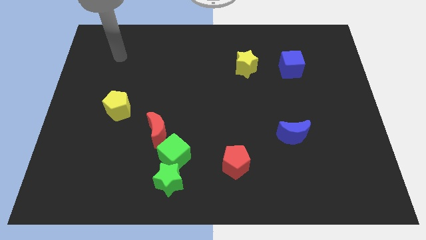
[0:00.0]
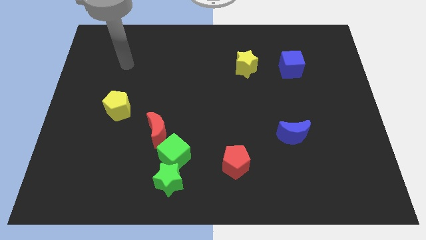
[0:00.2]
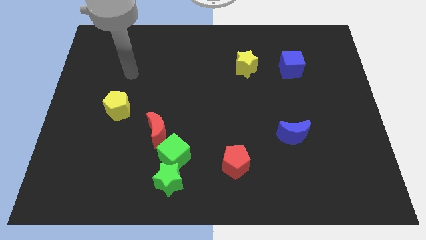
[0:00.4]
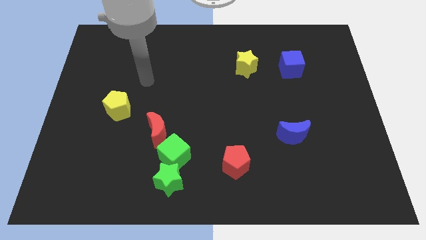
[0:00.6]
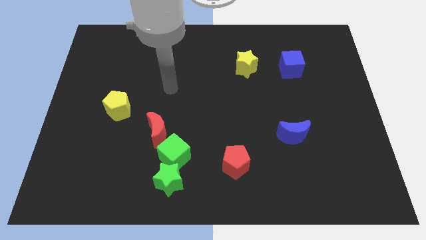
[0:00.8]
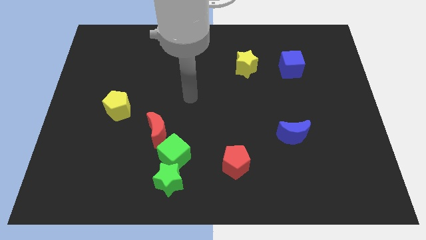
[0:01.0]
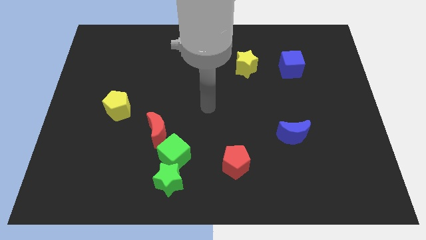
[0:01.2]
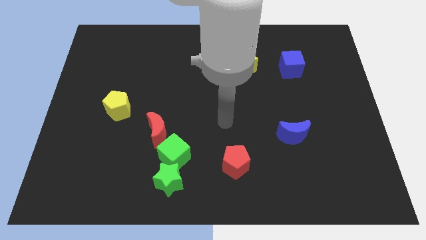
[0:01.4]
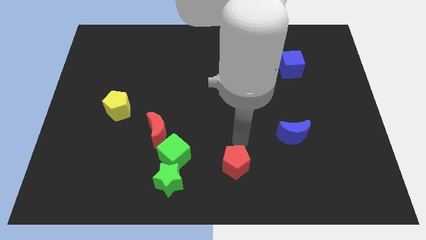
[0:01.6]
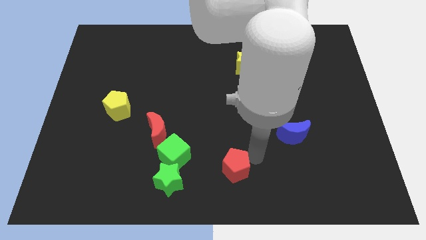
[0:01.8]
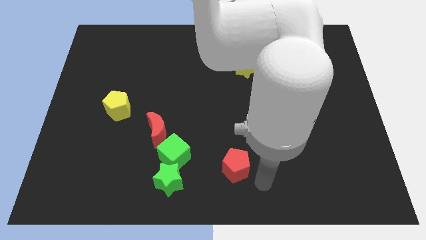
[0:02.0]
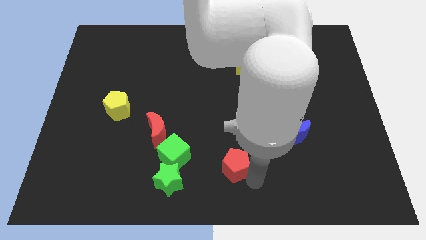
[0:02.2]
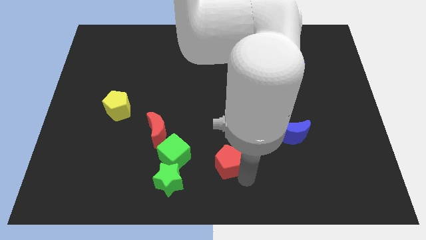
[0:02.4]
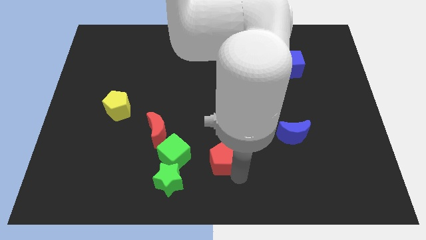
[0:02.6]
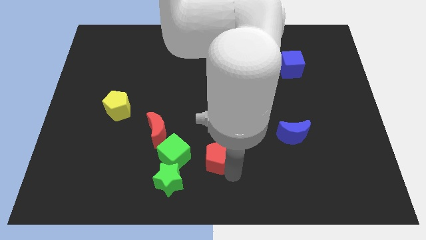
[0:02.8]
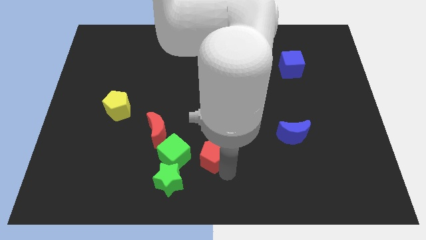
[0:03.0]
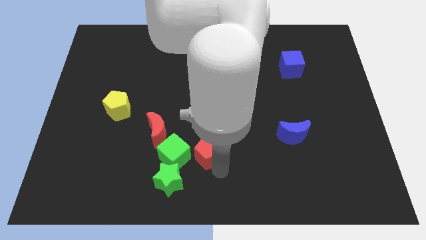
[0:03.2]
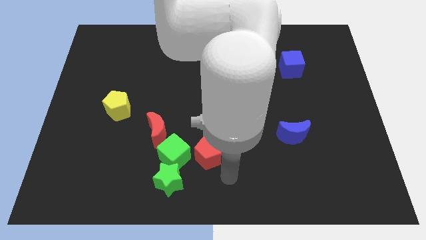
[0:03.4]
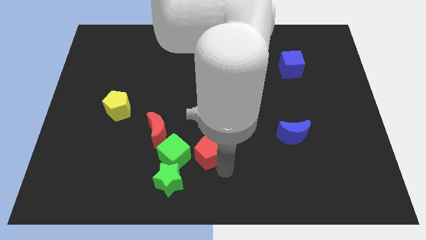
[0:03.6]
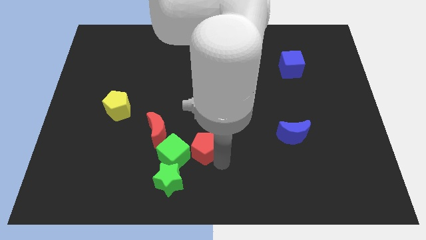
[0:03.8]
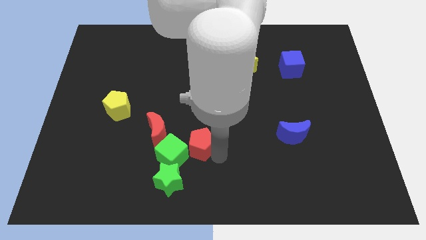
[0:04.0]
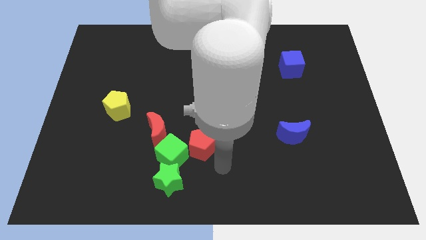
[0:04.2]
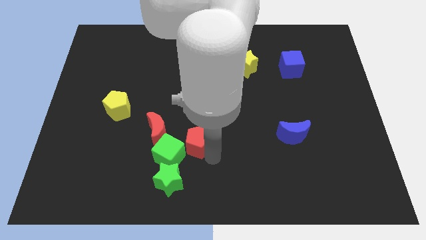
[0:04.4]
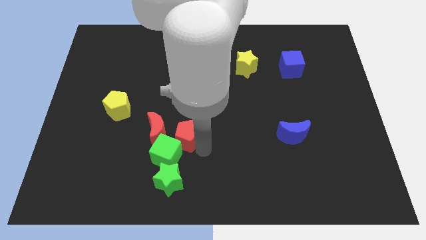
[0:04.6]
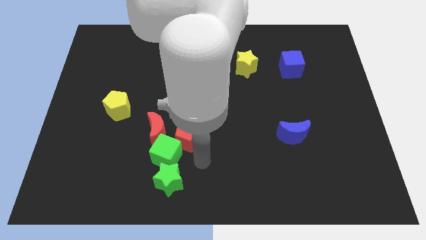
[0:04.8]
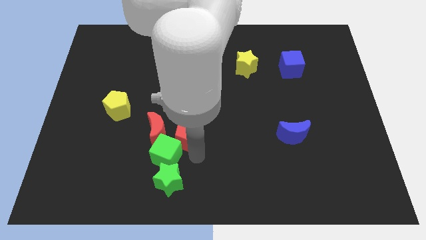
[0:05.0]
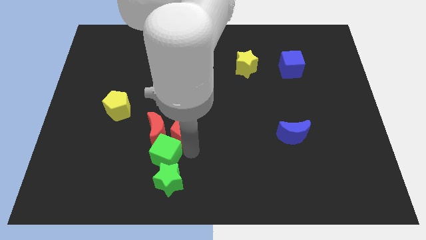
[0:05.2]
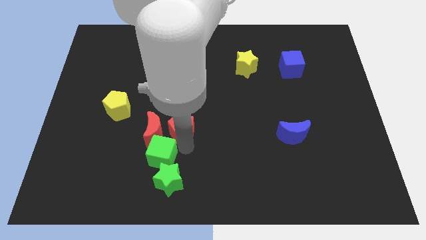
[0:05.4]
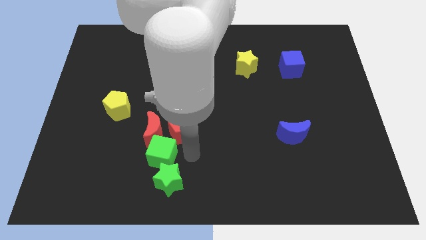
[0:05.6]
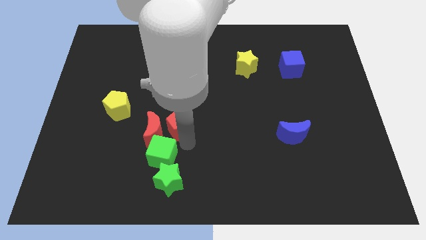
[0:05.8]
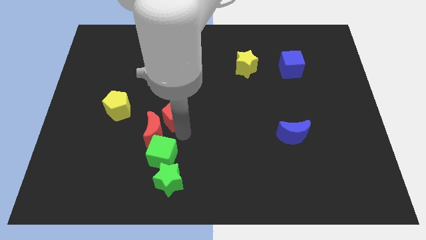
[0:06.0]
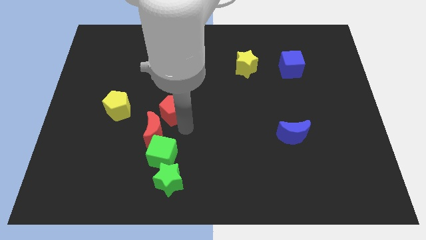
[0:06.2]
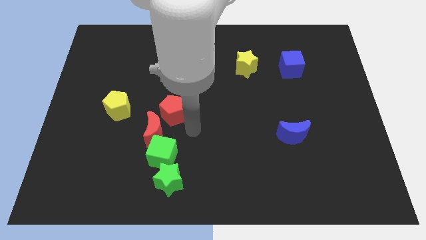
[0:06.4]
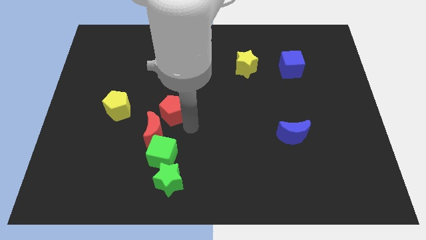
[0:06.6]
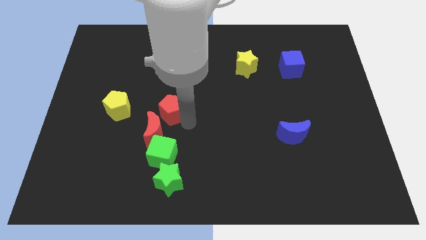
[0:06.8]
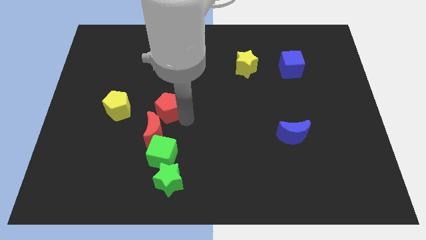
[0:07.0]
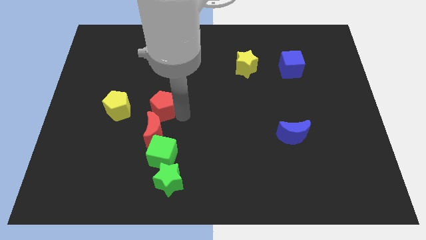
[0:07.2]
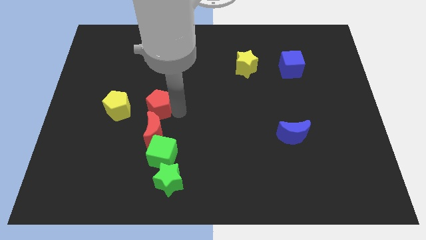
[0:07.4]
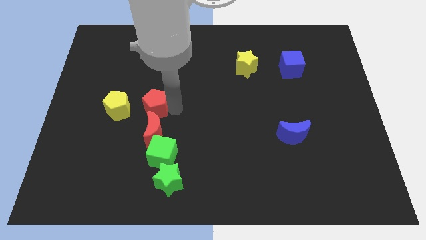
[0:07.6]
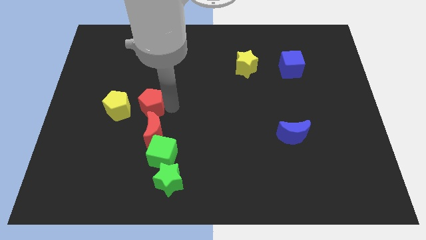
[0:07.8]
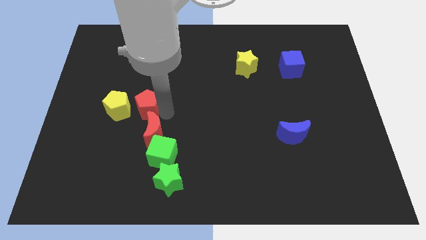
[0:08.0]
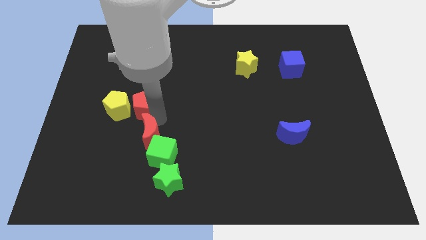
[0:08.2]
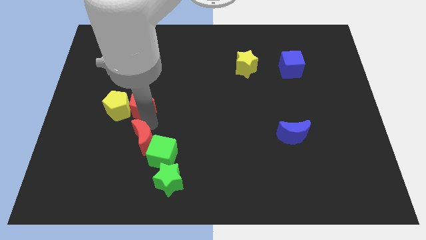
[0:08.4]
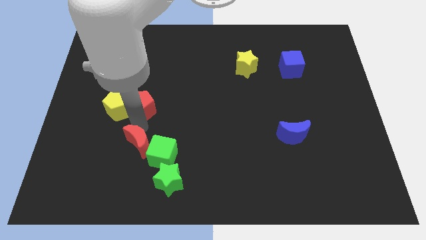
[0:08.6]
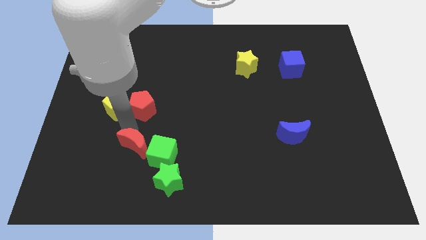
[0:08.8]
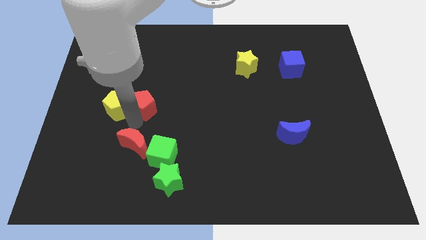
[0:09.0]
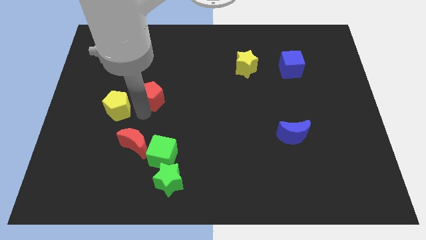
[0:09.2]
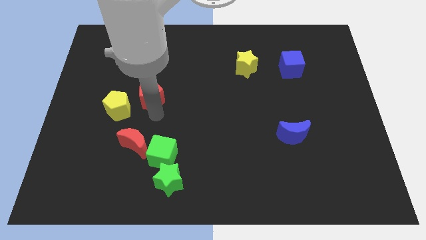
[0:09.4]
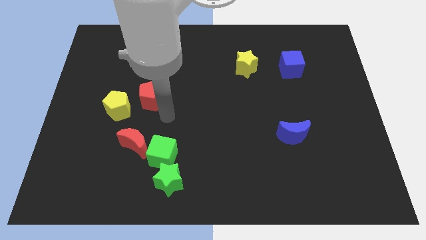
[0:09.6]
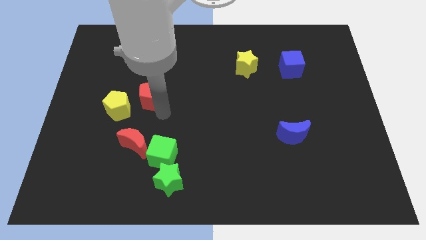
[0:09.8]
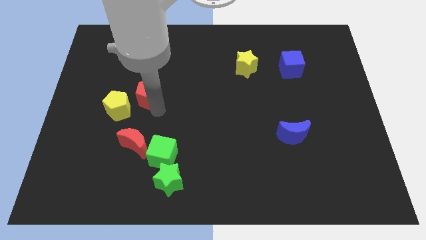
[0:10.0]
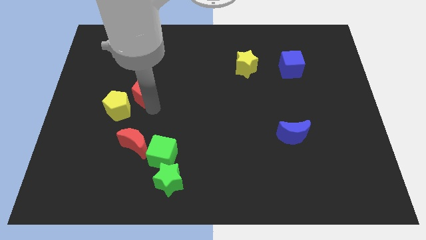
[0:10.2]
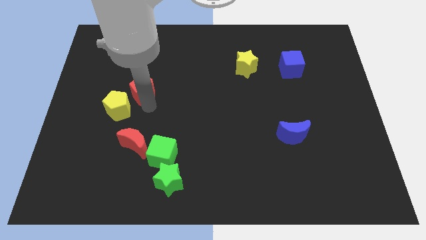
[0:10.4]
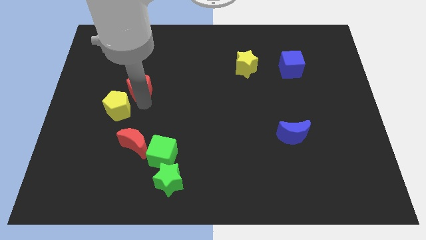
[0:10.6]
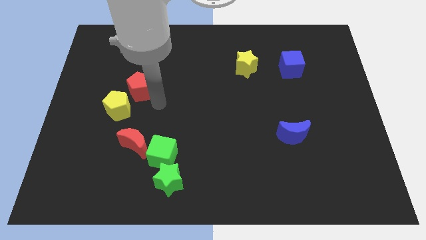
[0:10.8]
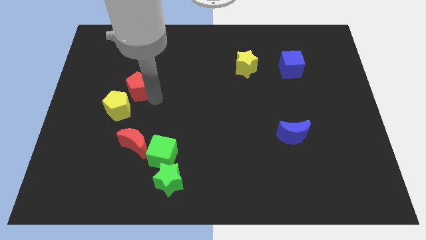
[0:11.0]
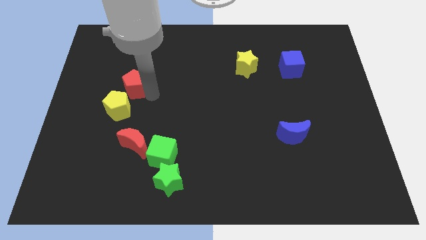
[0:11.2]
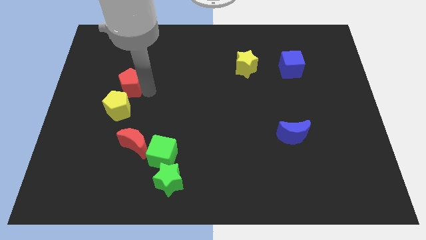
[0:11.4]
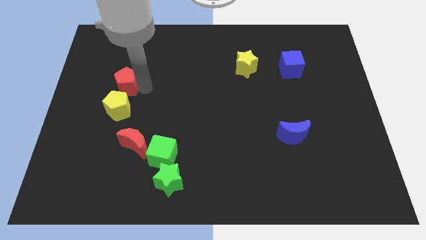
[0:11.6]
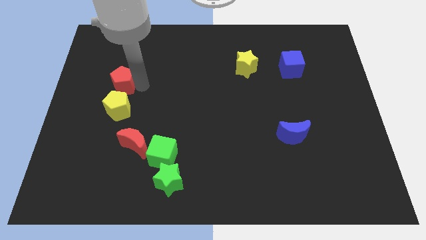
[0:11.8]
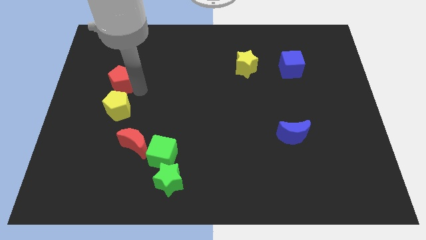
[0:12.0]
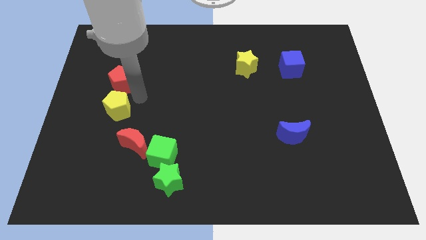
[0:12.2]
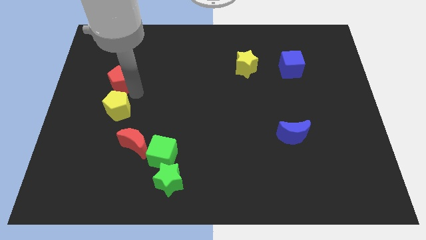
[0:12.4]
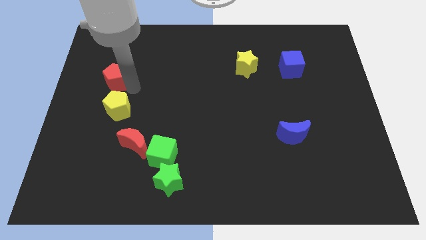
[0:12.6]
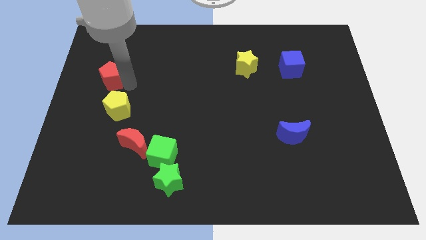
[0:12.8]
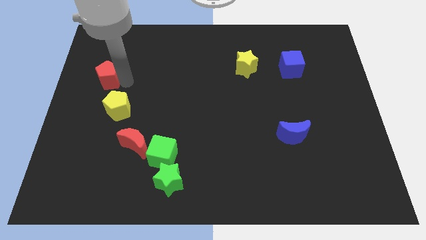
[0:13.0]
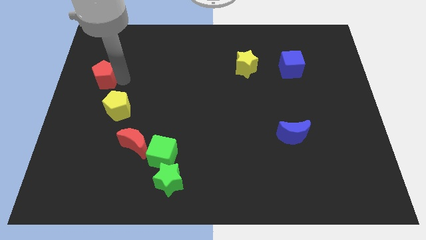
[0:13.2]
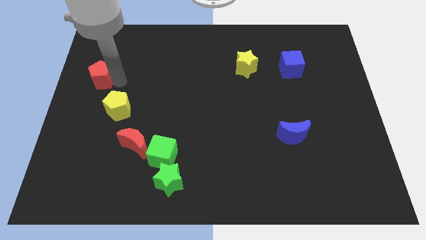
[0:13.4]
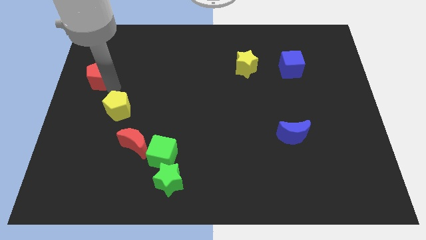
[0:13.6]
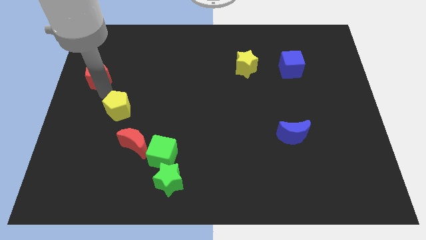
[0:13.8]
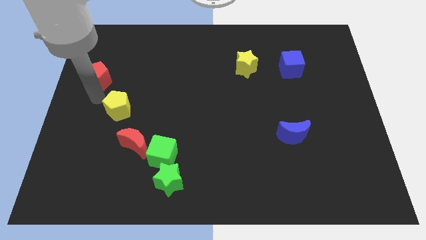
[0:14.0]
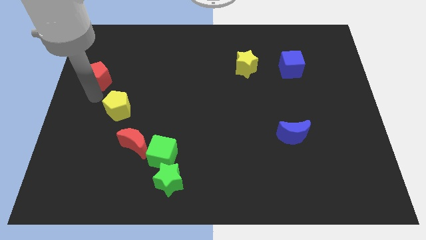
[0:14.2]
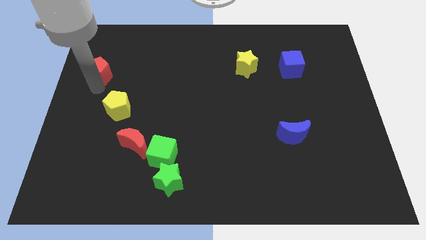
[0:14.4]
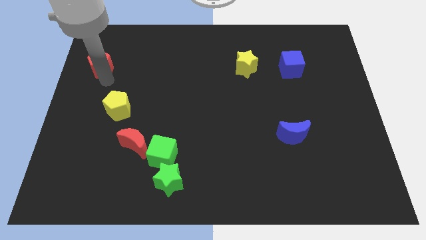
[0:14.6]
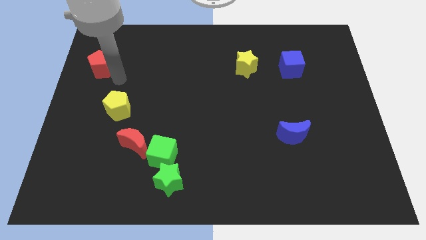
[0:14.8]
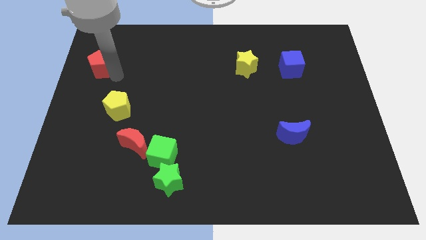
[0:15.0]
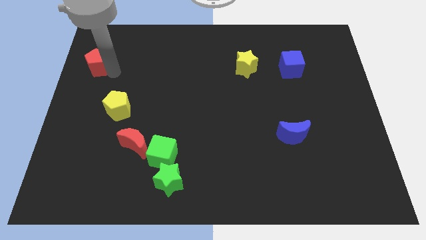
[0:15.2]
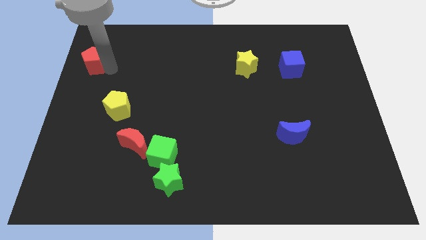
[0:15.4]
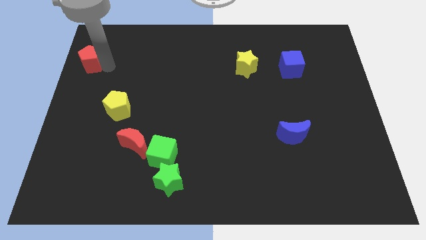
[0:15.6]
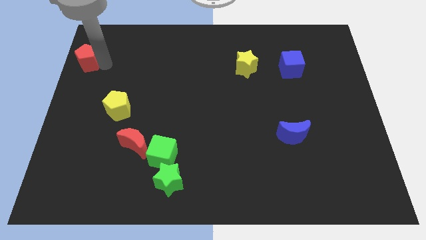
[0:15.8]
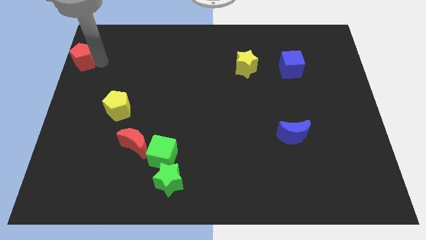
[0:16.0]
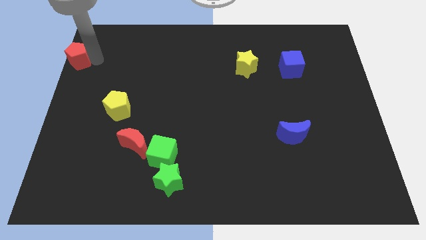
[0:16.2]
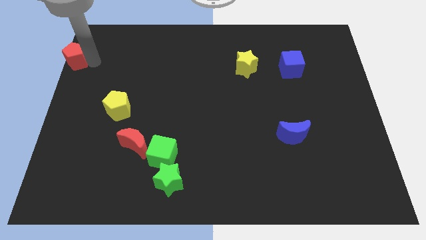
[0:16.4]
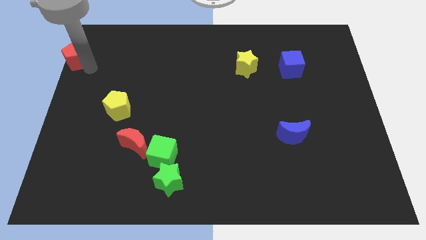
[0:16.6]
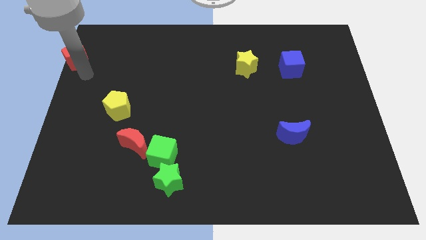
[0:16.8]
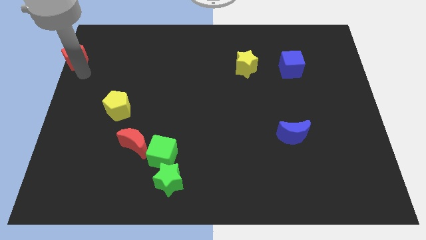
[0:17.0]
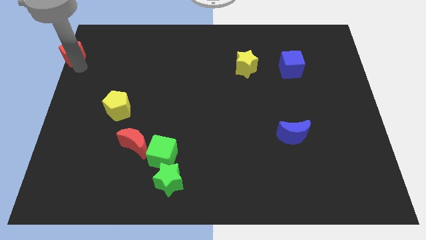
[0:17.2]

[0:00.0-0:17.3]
slide the red pentagon to the top left
